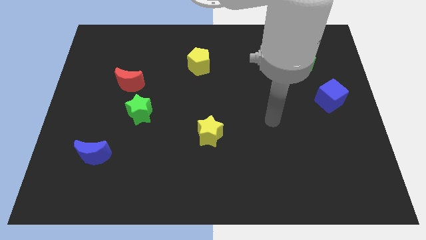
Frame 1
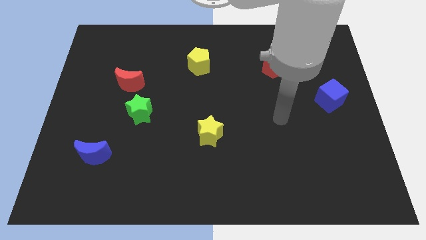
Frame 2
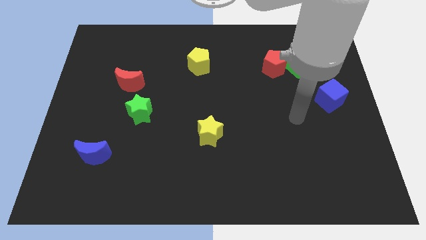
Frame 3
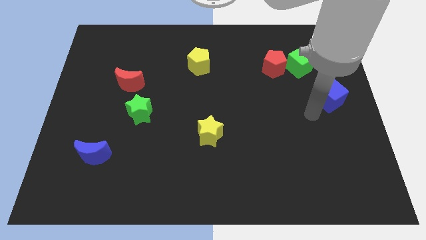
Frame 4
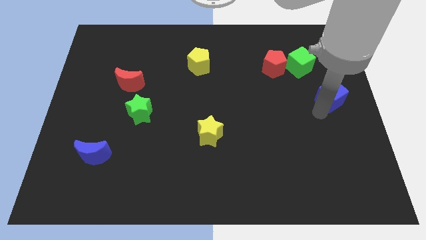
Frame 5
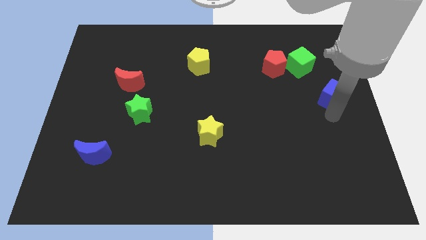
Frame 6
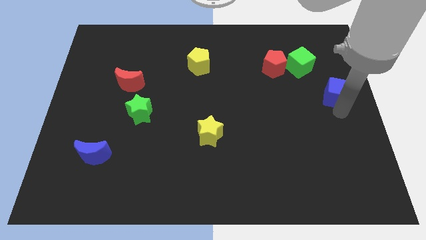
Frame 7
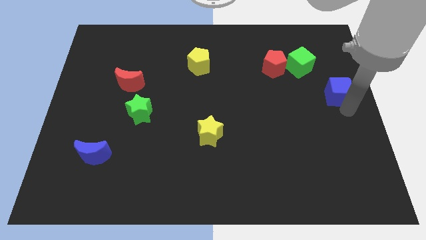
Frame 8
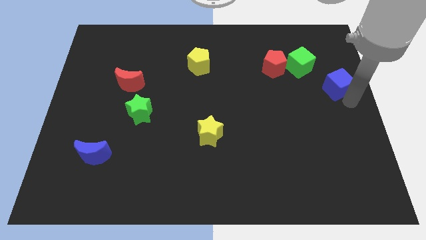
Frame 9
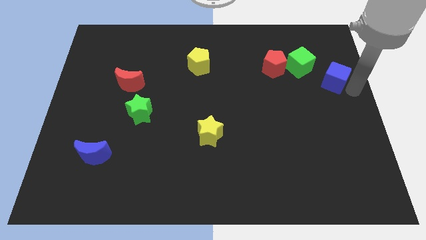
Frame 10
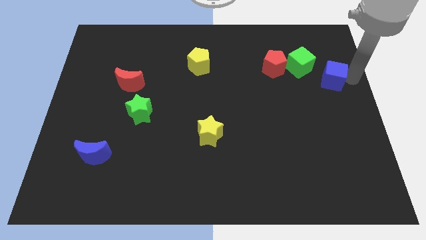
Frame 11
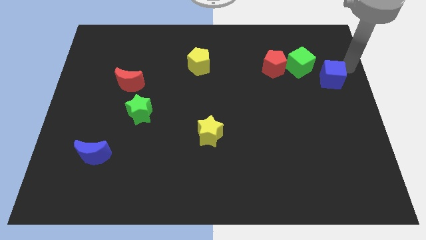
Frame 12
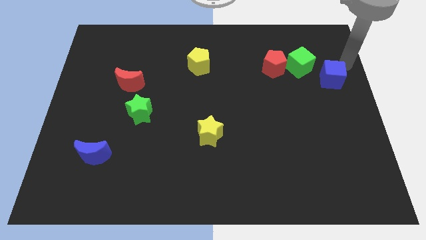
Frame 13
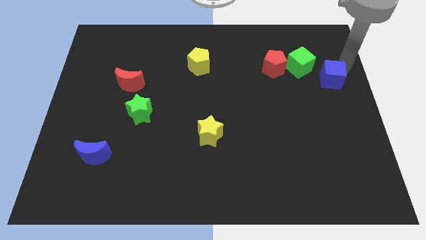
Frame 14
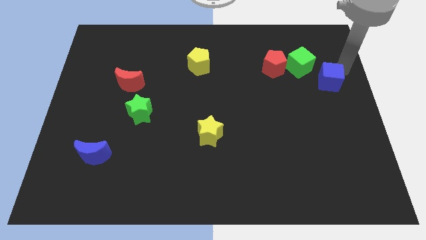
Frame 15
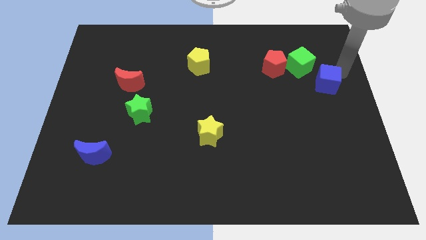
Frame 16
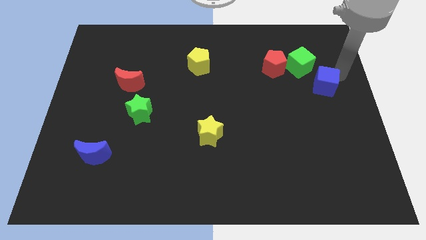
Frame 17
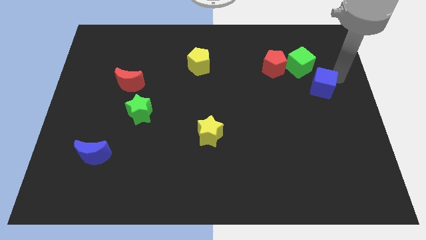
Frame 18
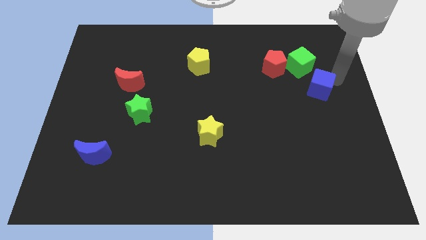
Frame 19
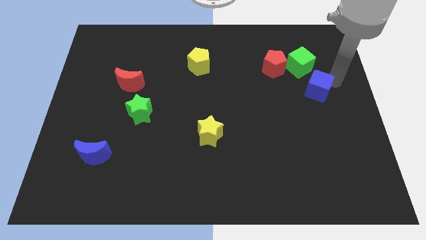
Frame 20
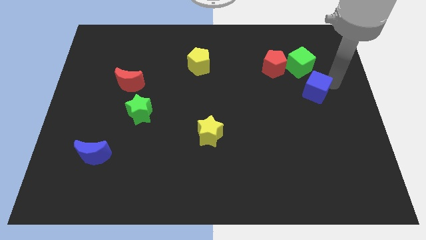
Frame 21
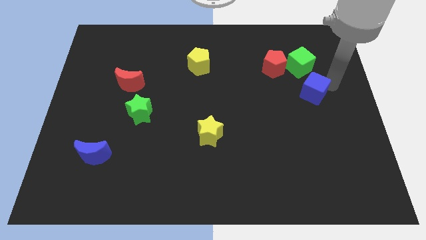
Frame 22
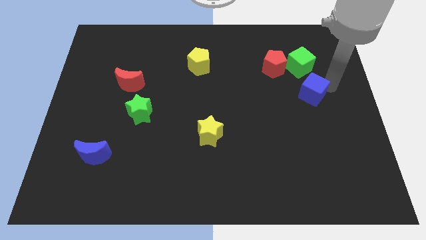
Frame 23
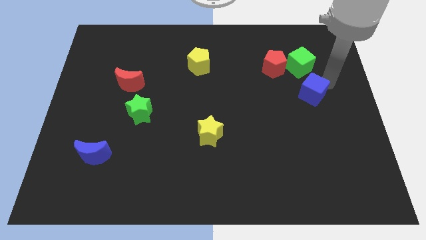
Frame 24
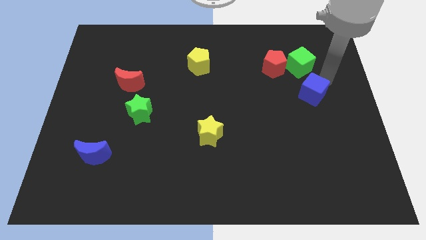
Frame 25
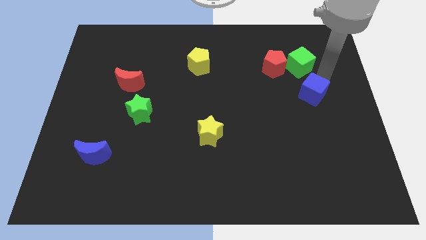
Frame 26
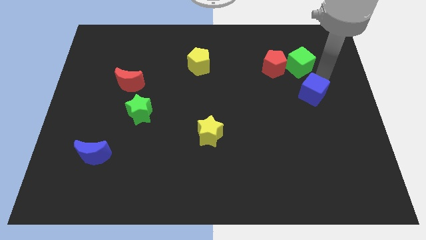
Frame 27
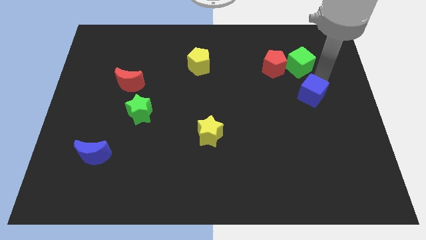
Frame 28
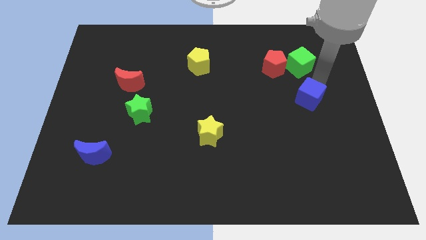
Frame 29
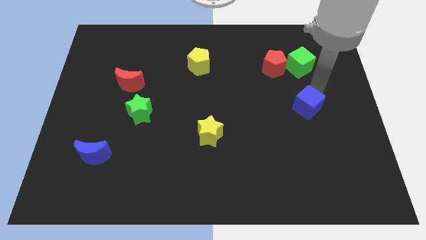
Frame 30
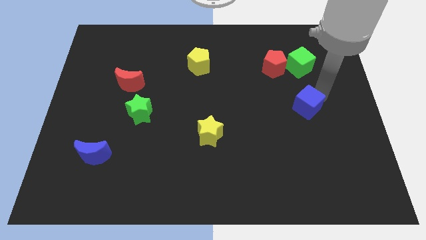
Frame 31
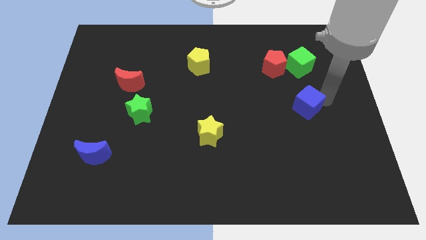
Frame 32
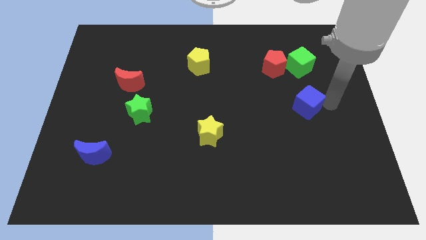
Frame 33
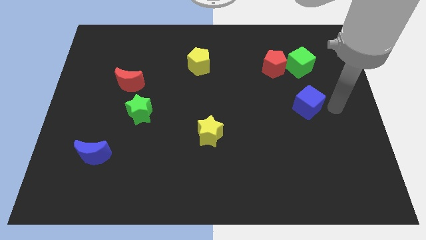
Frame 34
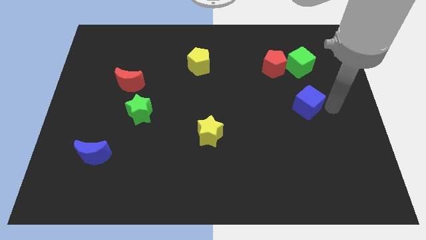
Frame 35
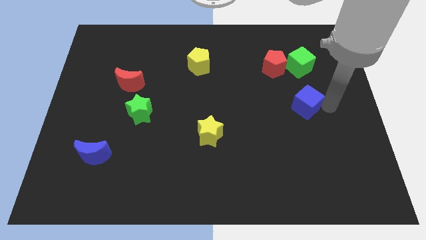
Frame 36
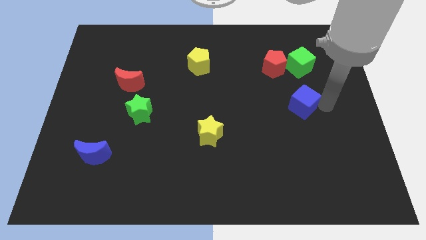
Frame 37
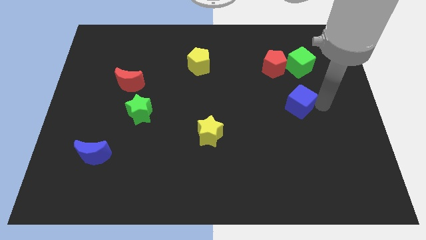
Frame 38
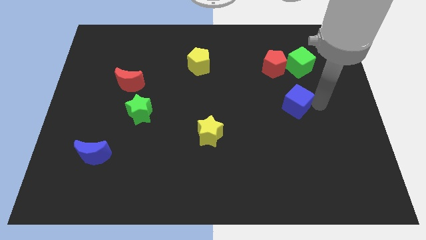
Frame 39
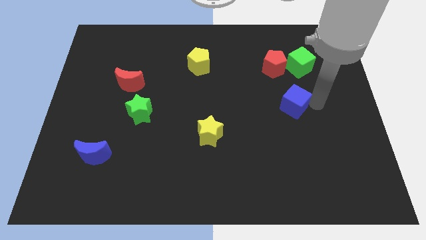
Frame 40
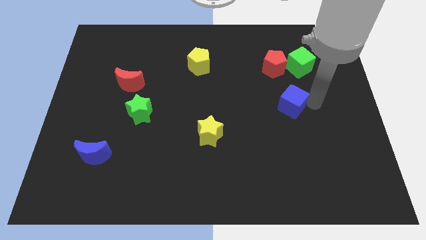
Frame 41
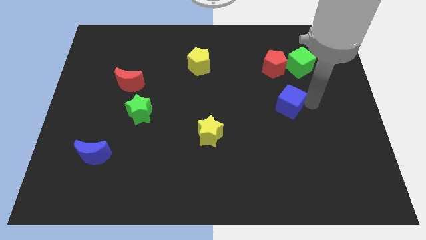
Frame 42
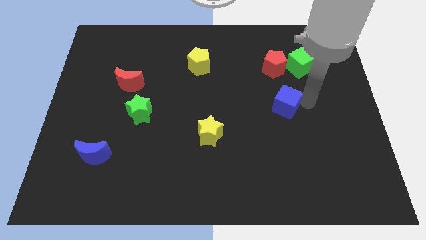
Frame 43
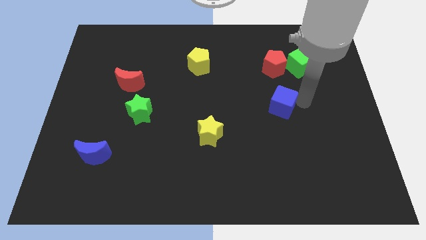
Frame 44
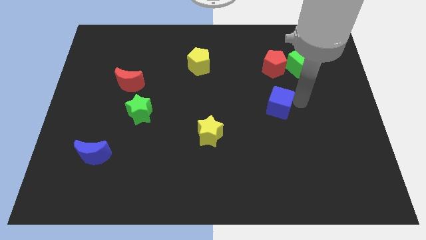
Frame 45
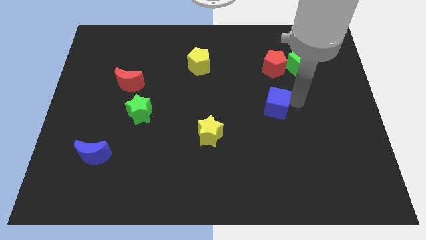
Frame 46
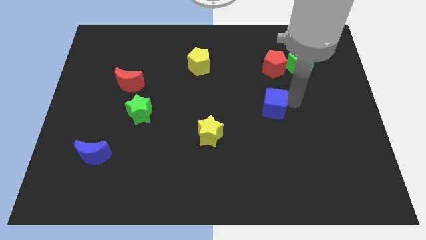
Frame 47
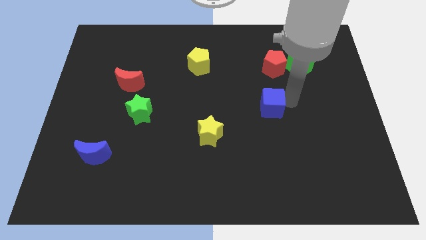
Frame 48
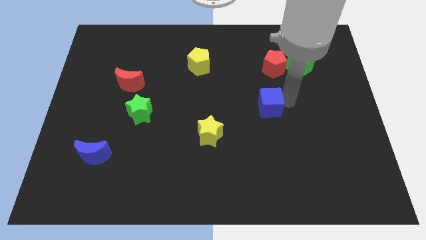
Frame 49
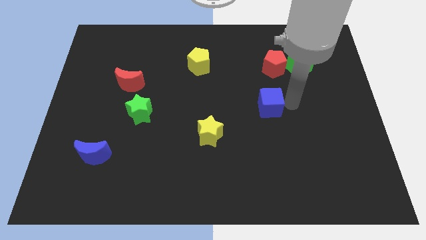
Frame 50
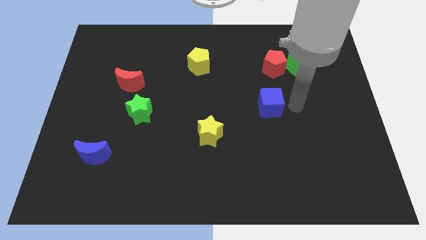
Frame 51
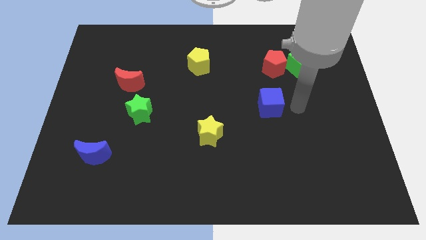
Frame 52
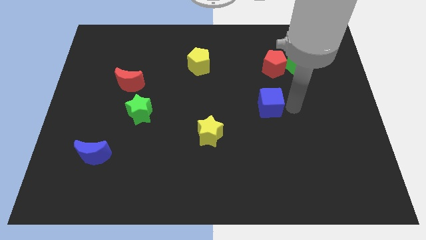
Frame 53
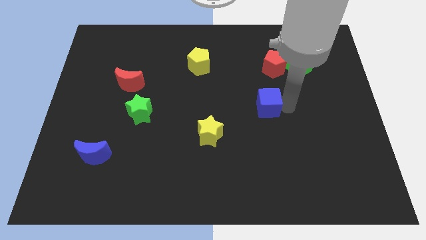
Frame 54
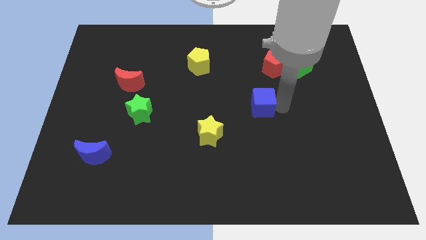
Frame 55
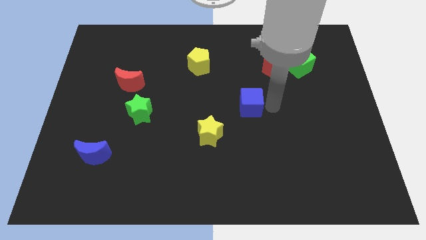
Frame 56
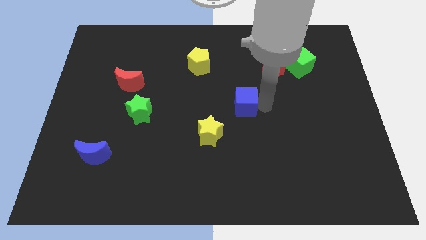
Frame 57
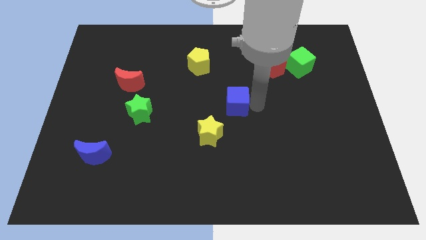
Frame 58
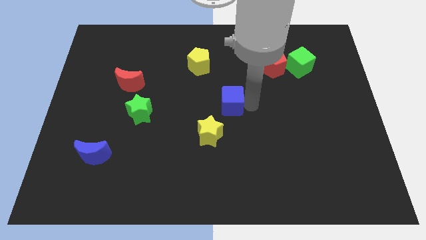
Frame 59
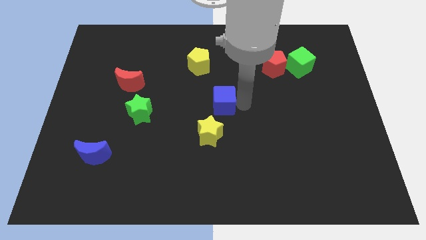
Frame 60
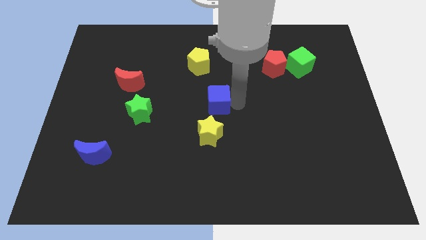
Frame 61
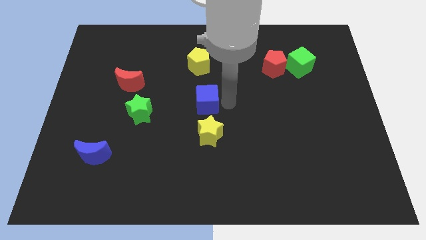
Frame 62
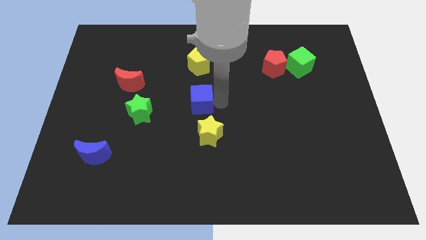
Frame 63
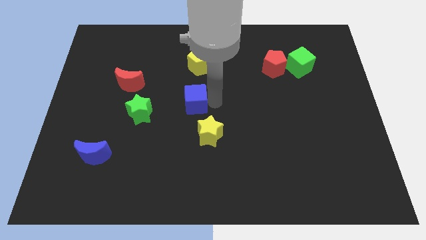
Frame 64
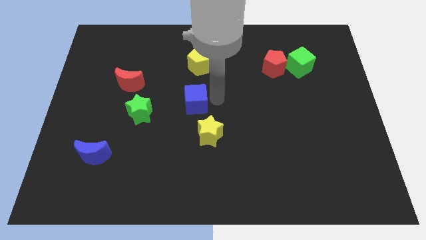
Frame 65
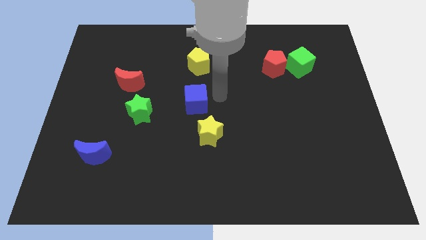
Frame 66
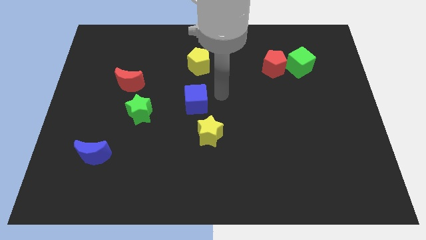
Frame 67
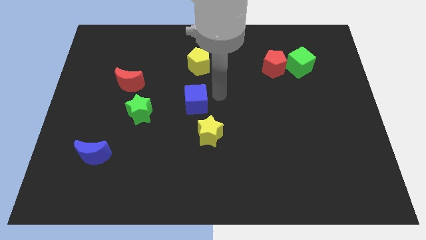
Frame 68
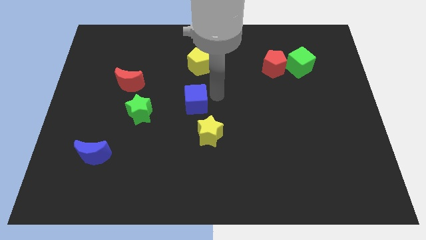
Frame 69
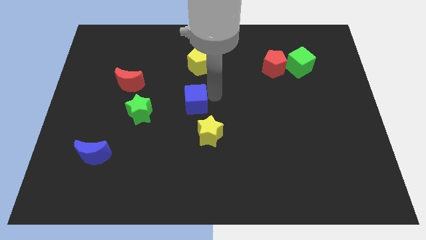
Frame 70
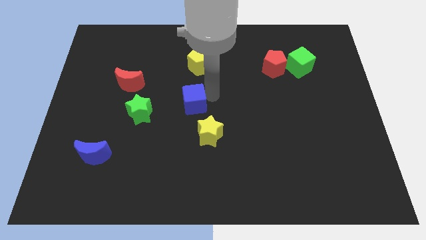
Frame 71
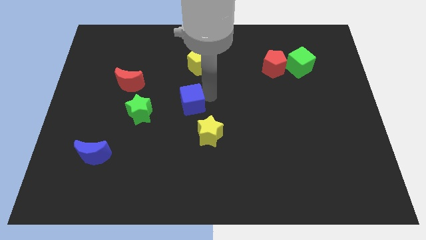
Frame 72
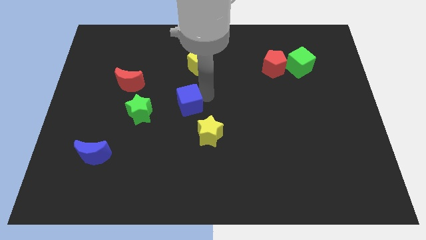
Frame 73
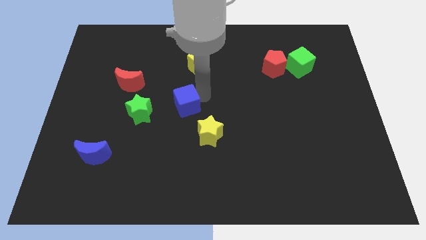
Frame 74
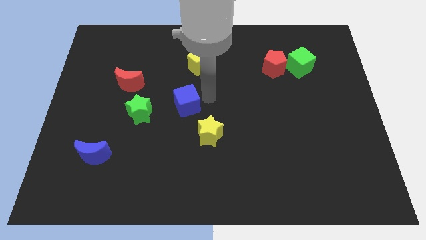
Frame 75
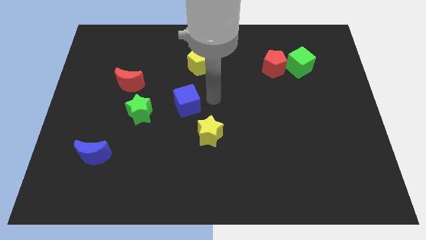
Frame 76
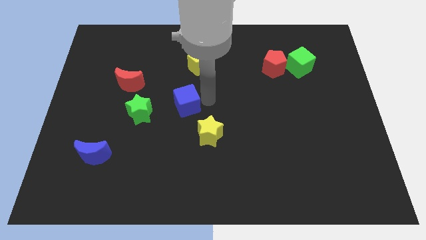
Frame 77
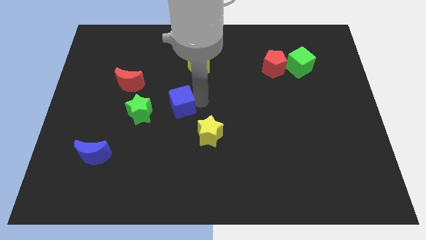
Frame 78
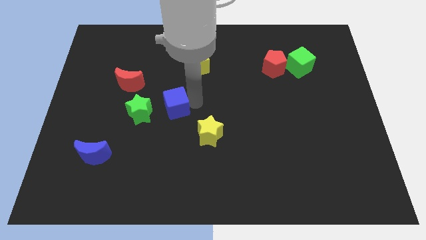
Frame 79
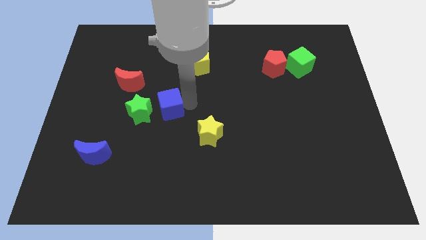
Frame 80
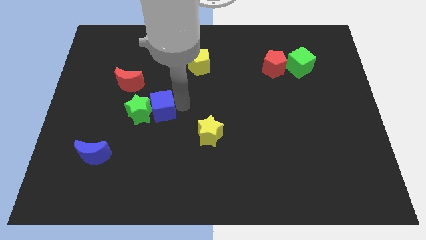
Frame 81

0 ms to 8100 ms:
slide the blue cube next to the green star
